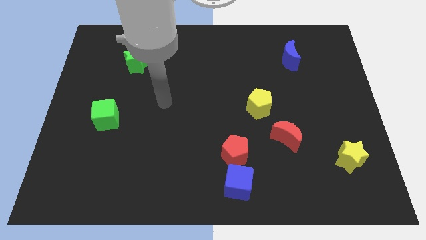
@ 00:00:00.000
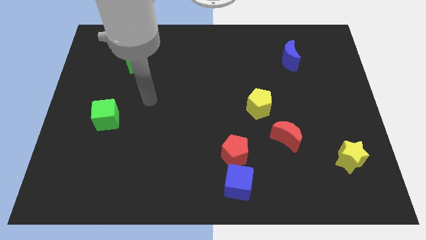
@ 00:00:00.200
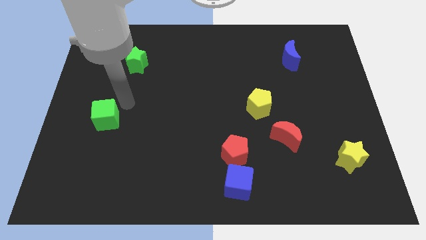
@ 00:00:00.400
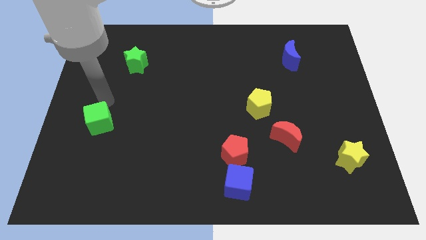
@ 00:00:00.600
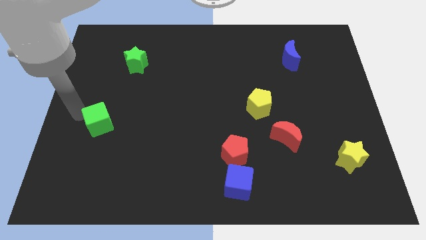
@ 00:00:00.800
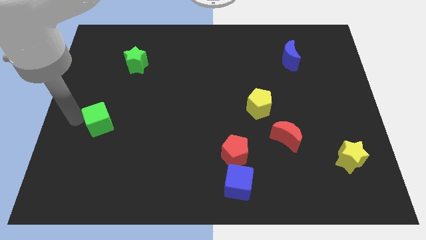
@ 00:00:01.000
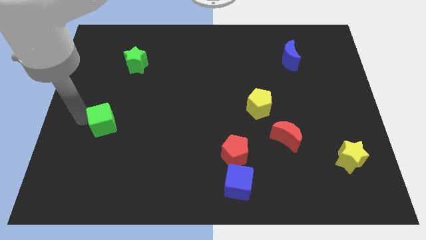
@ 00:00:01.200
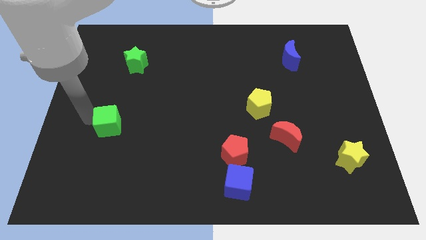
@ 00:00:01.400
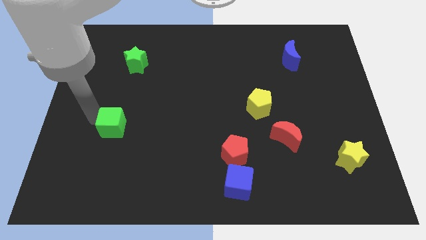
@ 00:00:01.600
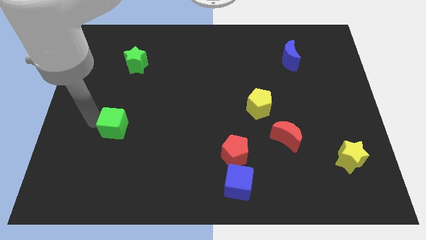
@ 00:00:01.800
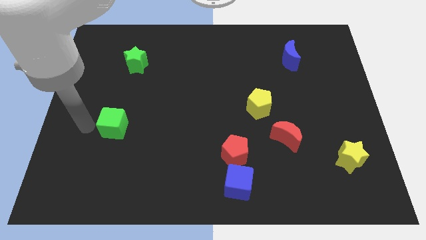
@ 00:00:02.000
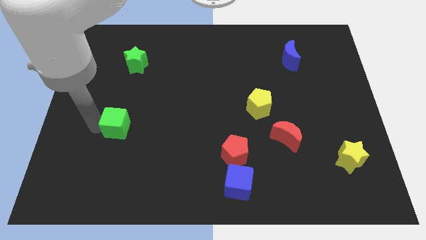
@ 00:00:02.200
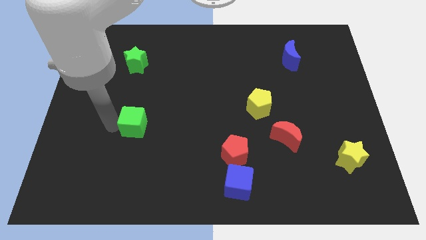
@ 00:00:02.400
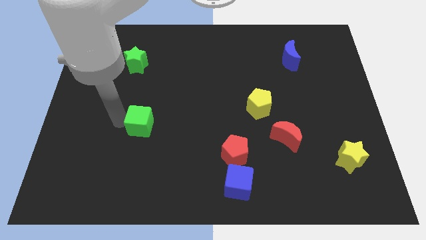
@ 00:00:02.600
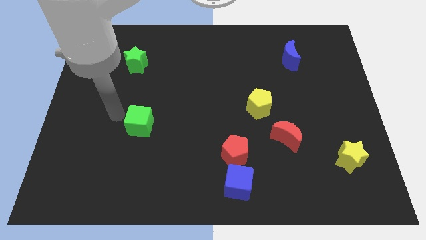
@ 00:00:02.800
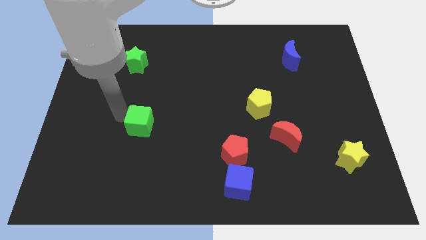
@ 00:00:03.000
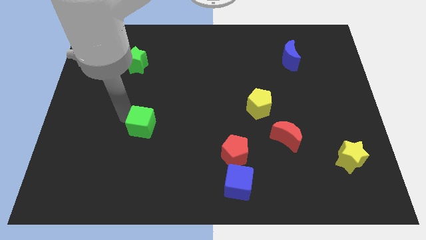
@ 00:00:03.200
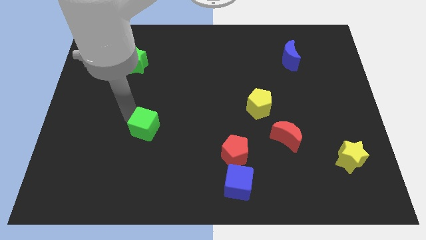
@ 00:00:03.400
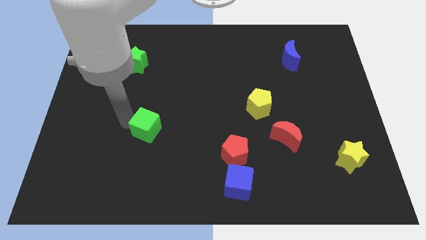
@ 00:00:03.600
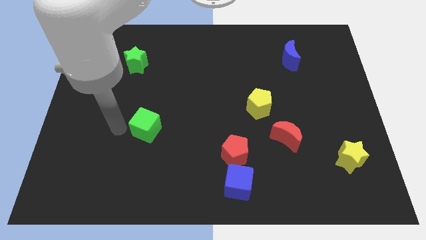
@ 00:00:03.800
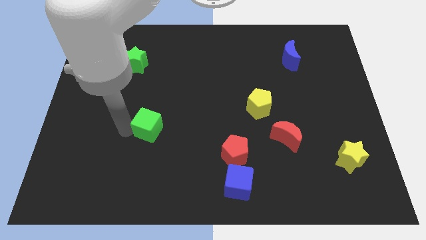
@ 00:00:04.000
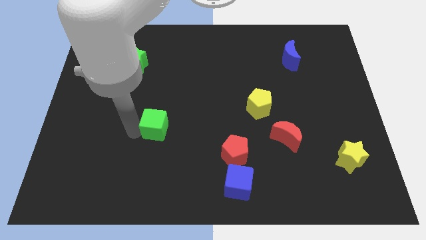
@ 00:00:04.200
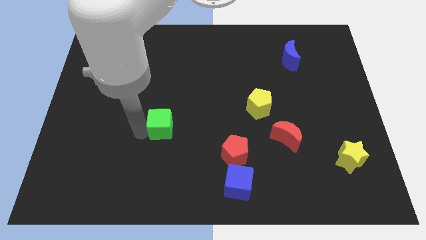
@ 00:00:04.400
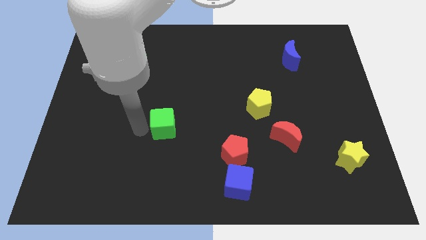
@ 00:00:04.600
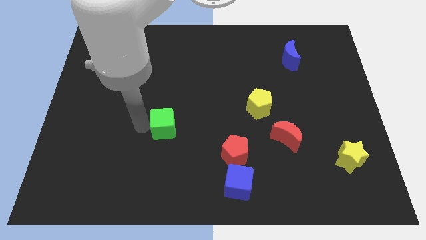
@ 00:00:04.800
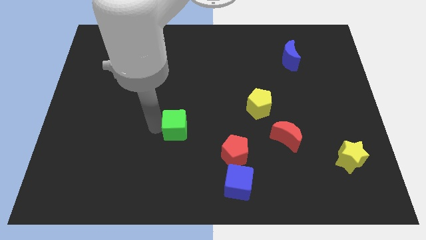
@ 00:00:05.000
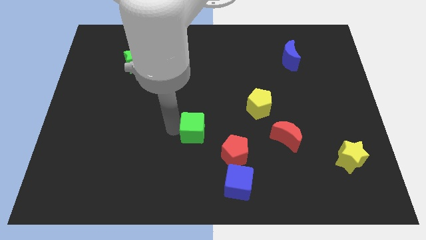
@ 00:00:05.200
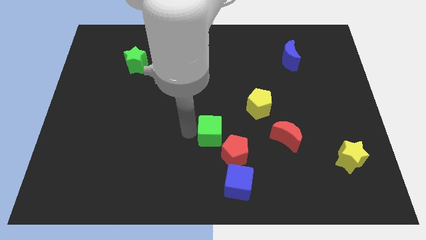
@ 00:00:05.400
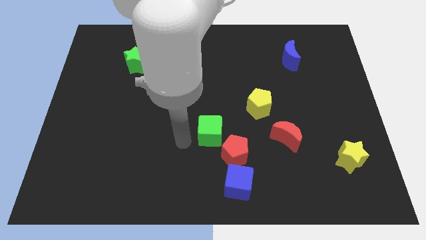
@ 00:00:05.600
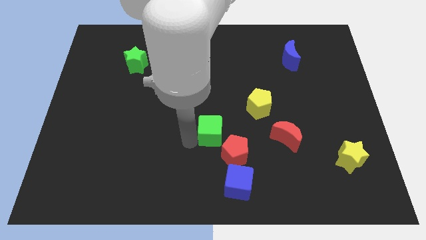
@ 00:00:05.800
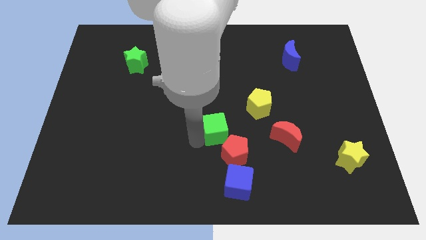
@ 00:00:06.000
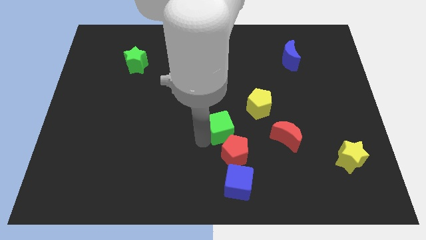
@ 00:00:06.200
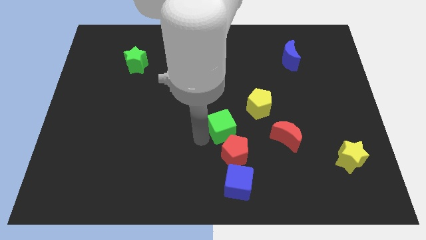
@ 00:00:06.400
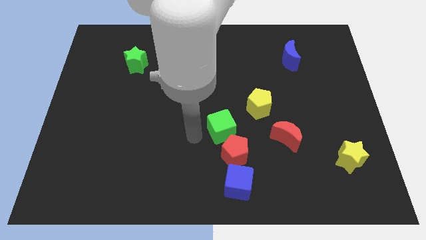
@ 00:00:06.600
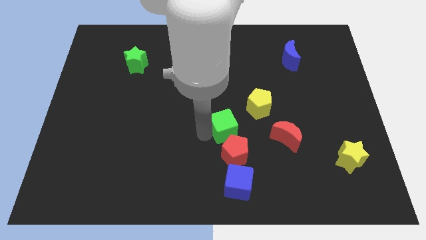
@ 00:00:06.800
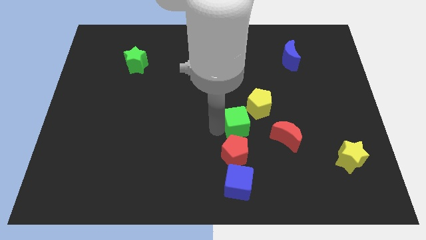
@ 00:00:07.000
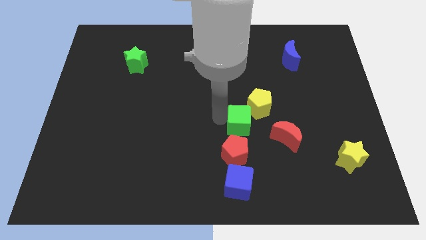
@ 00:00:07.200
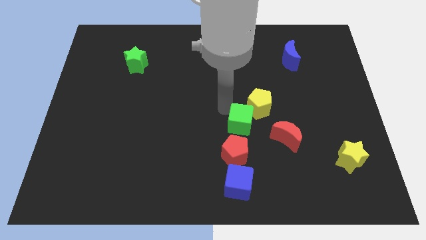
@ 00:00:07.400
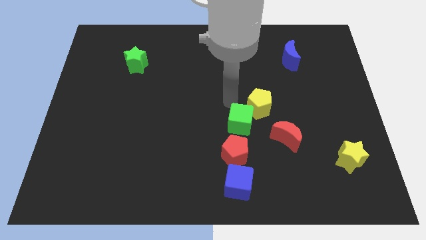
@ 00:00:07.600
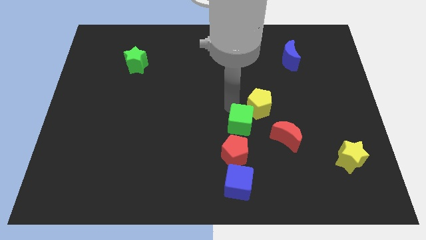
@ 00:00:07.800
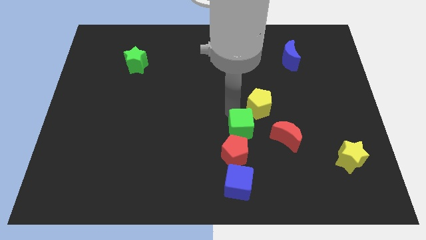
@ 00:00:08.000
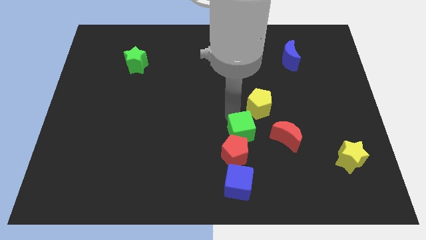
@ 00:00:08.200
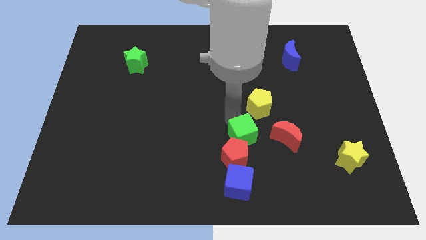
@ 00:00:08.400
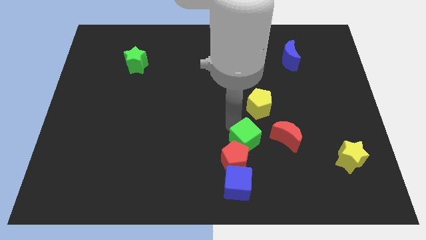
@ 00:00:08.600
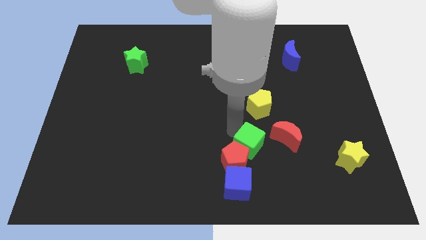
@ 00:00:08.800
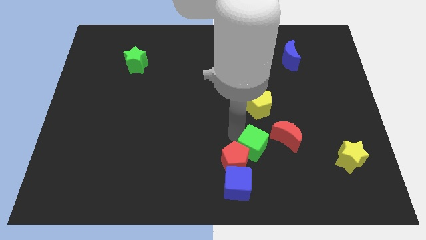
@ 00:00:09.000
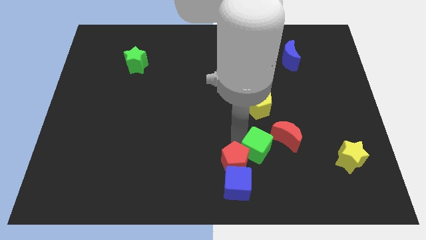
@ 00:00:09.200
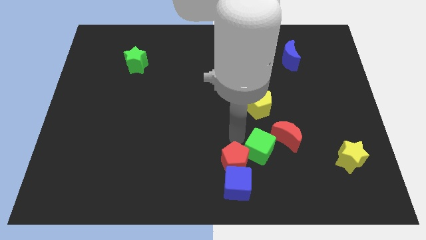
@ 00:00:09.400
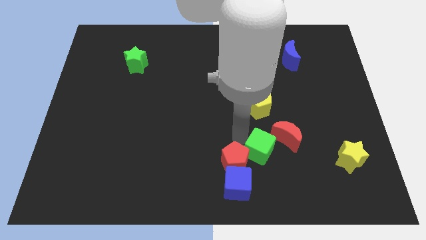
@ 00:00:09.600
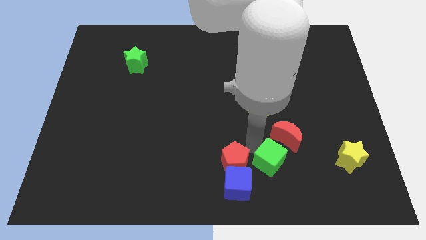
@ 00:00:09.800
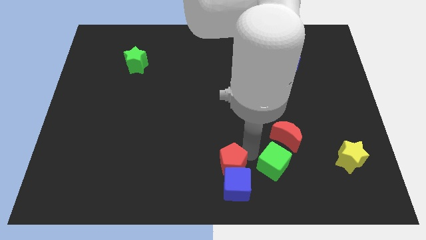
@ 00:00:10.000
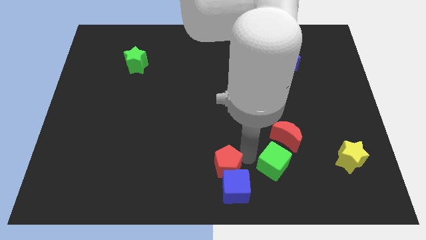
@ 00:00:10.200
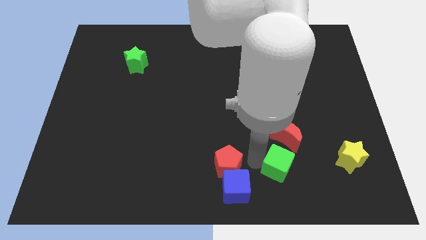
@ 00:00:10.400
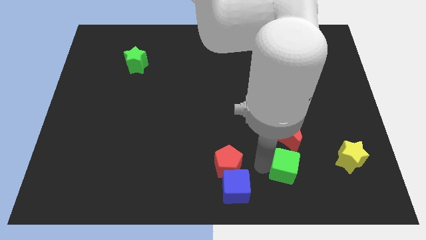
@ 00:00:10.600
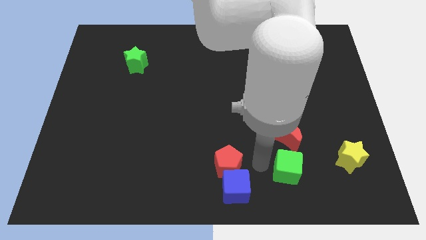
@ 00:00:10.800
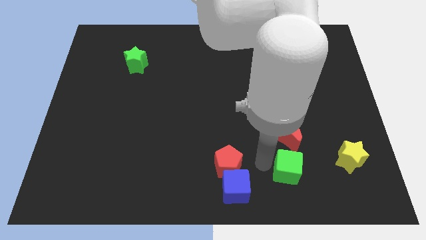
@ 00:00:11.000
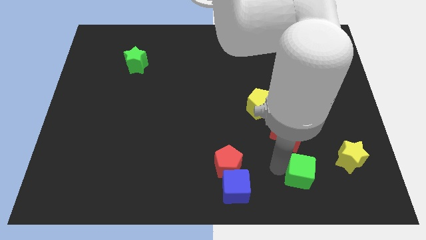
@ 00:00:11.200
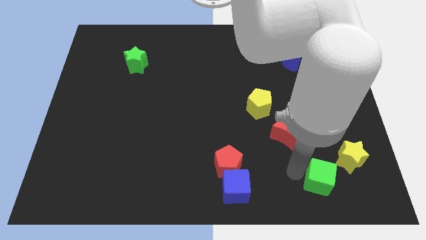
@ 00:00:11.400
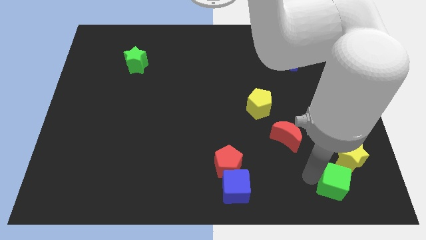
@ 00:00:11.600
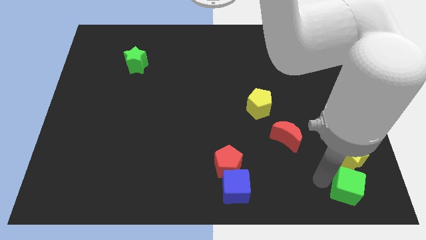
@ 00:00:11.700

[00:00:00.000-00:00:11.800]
put the green cube to the bottom right corner
